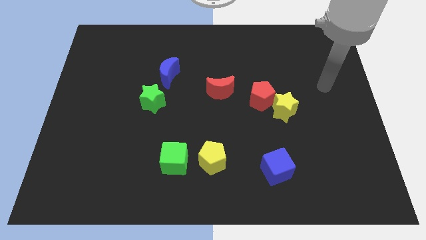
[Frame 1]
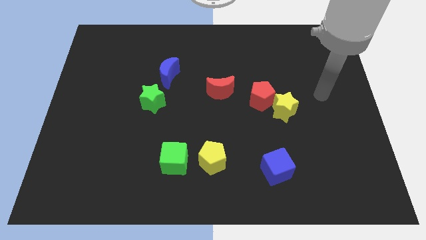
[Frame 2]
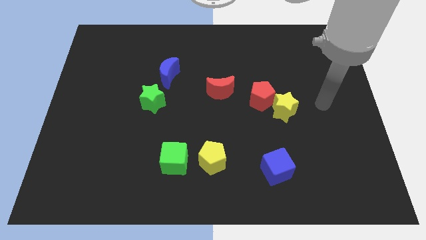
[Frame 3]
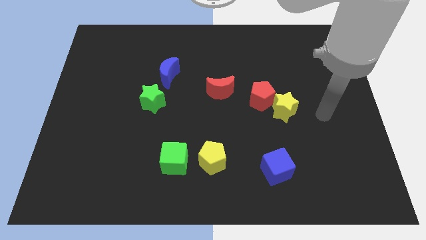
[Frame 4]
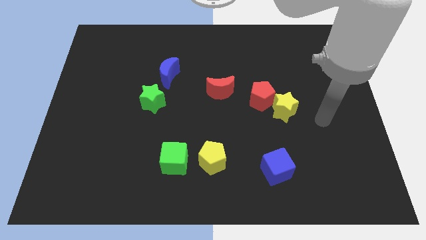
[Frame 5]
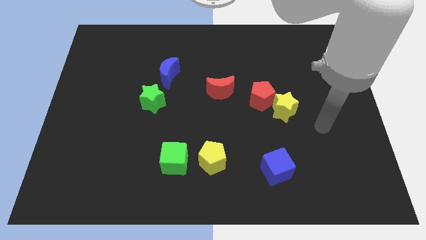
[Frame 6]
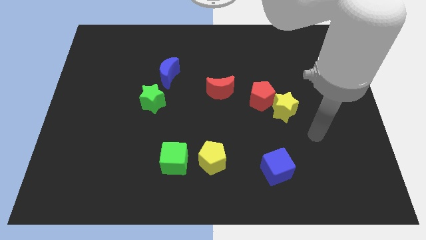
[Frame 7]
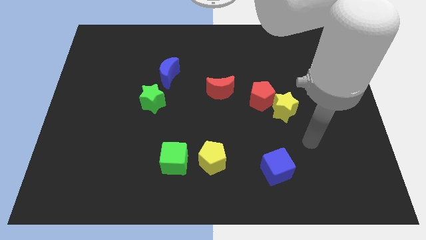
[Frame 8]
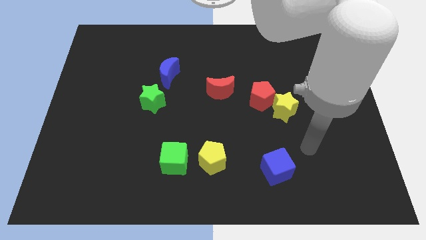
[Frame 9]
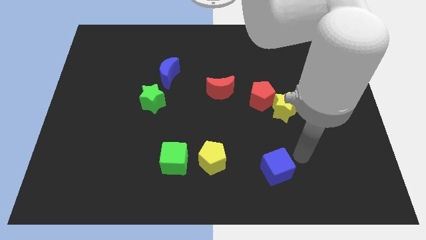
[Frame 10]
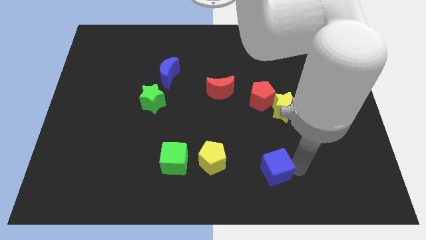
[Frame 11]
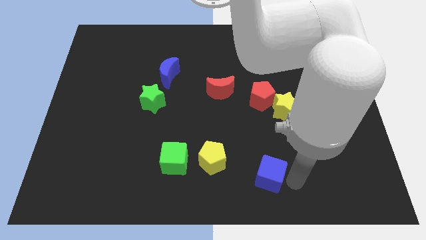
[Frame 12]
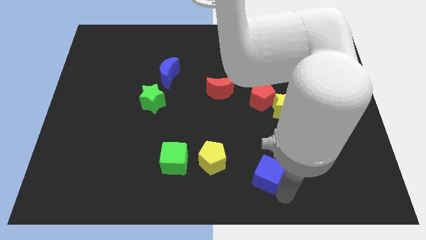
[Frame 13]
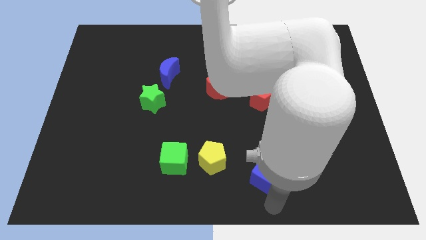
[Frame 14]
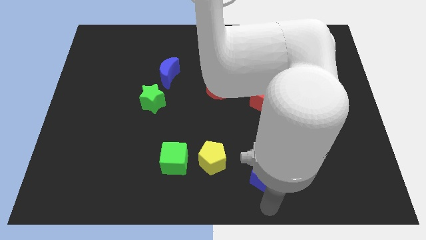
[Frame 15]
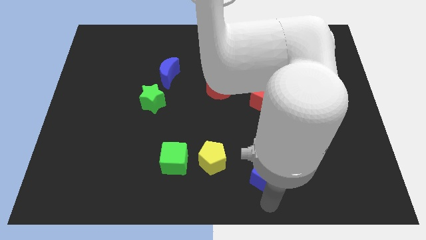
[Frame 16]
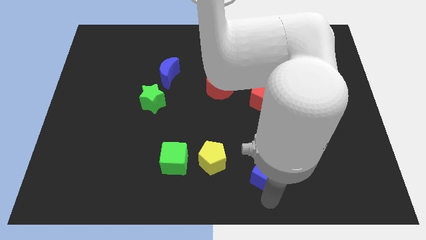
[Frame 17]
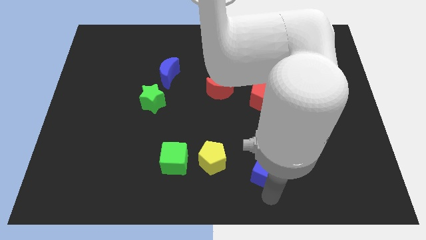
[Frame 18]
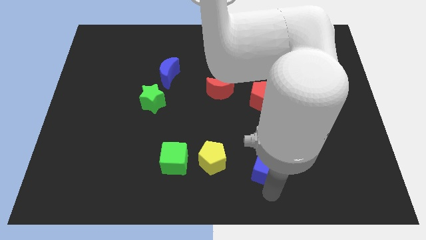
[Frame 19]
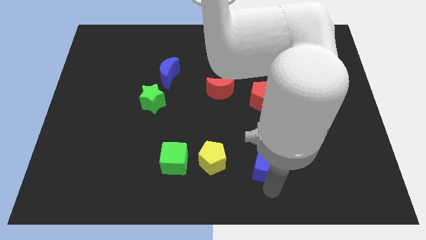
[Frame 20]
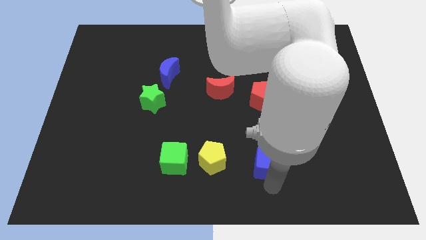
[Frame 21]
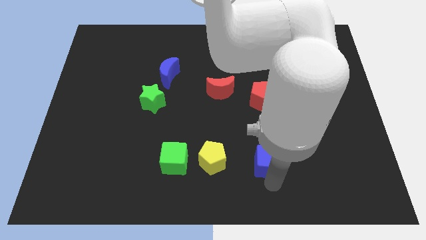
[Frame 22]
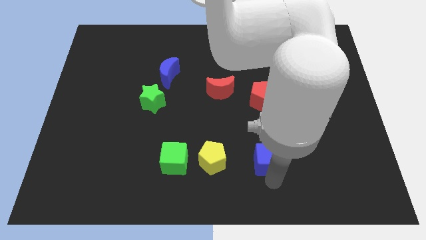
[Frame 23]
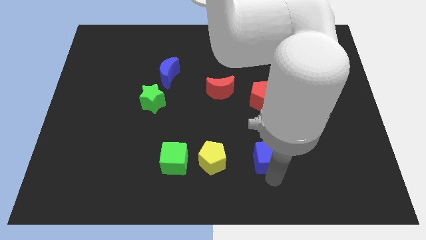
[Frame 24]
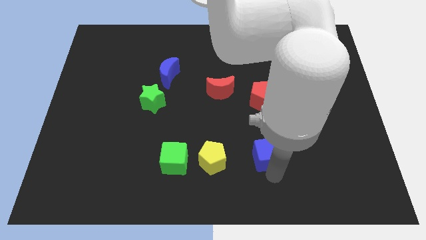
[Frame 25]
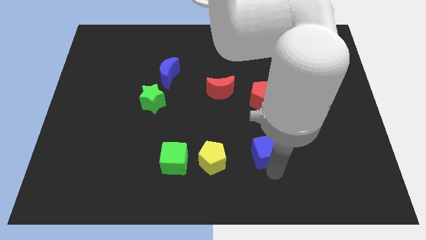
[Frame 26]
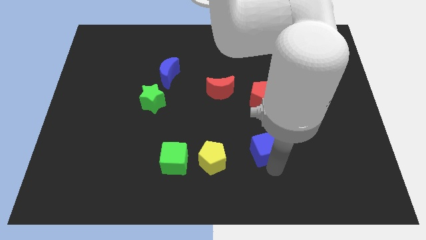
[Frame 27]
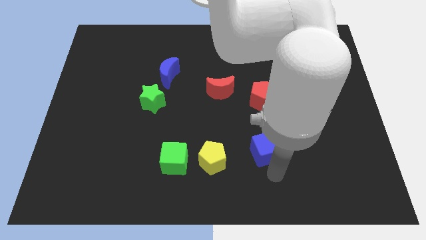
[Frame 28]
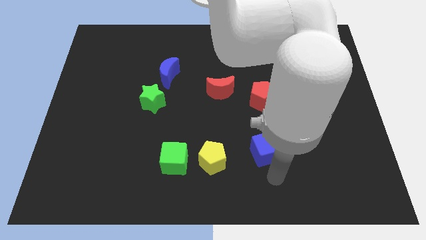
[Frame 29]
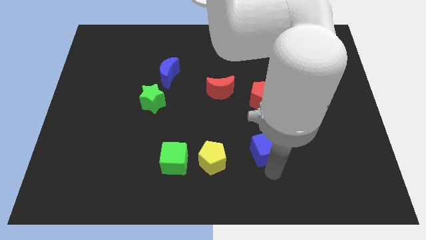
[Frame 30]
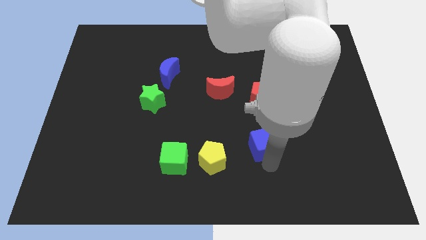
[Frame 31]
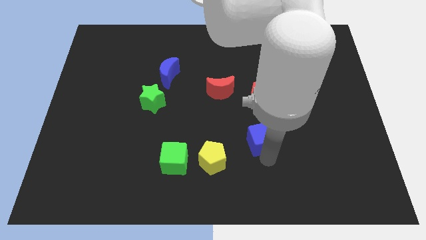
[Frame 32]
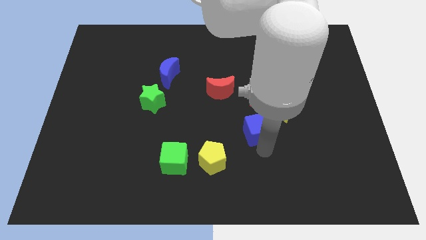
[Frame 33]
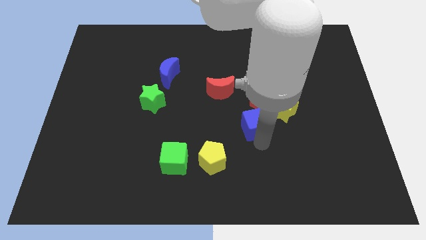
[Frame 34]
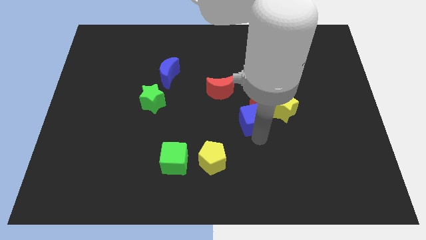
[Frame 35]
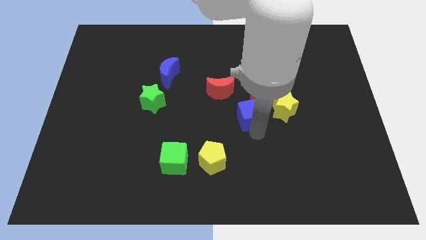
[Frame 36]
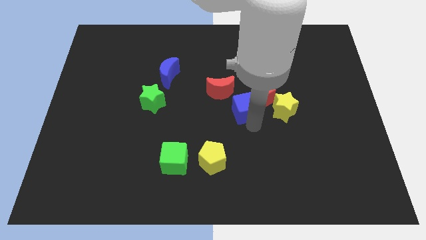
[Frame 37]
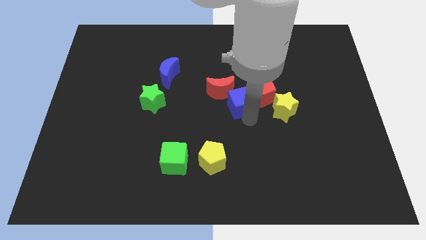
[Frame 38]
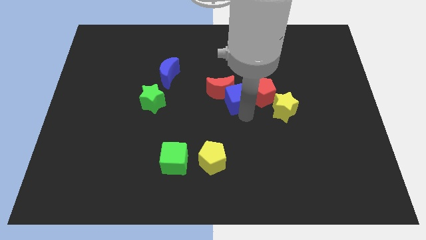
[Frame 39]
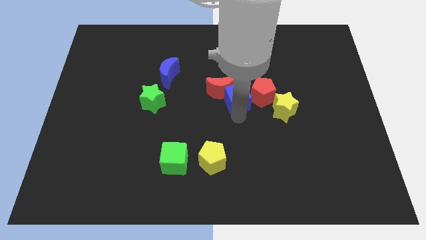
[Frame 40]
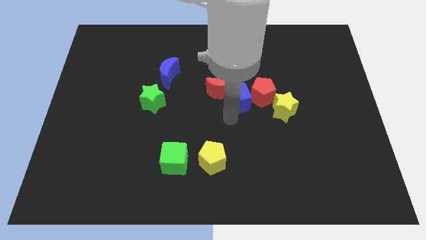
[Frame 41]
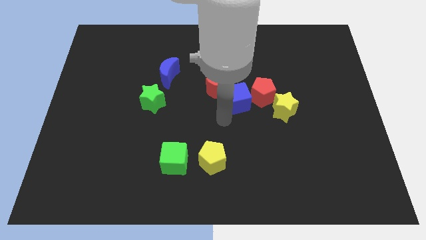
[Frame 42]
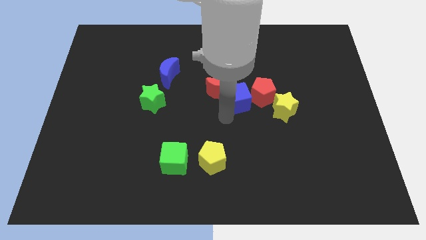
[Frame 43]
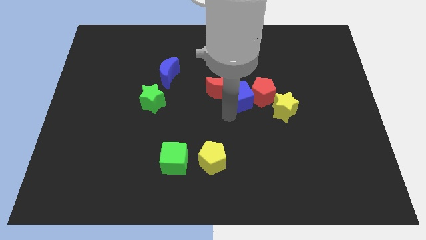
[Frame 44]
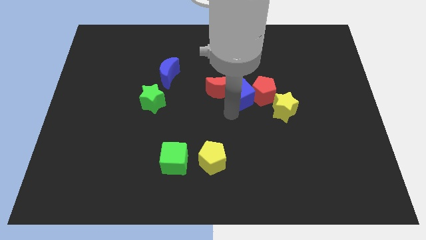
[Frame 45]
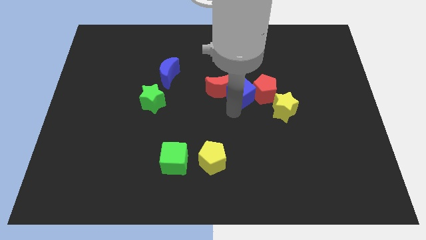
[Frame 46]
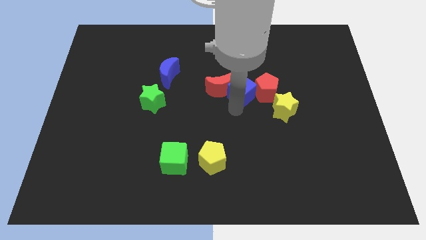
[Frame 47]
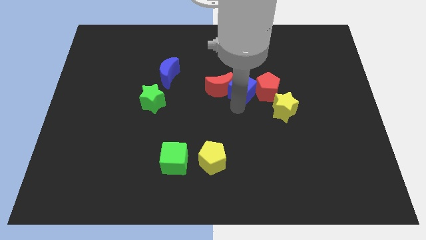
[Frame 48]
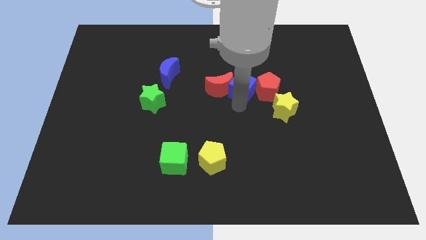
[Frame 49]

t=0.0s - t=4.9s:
slide the blue cube upwards

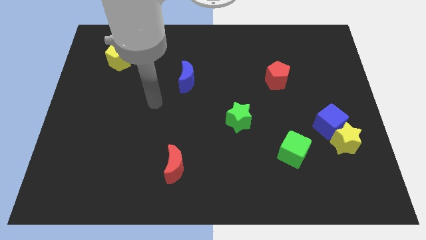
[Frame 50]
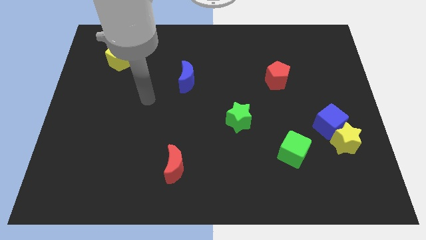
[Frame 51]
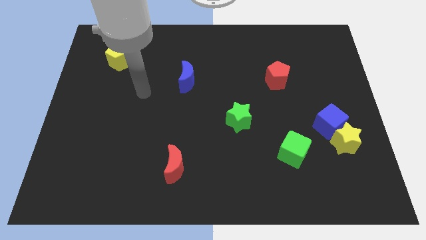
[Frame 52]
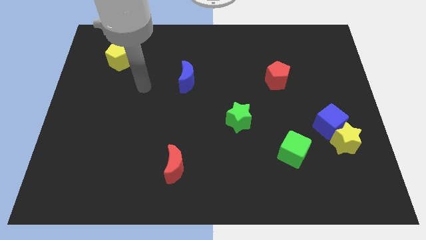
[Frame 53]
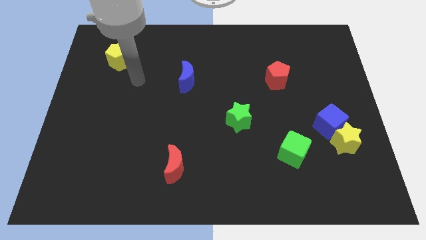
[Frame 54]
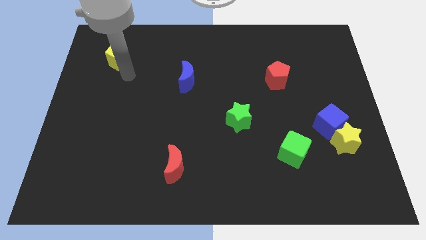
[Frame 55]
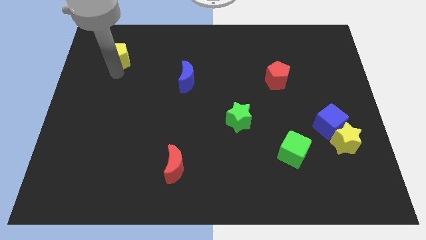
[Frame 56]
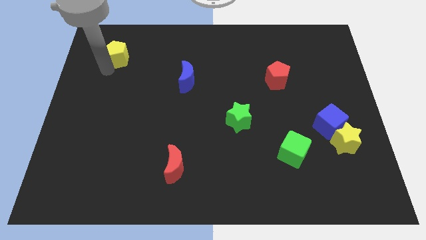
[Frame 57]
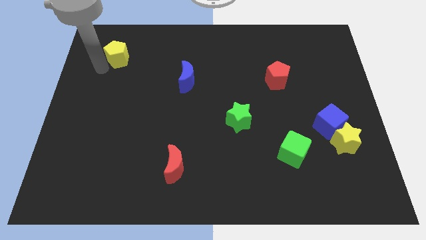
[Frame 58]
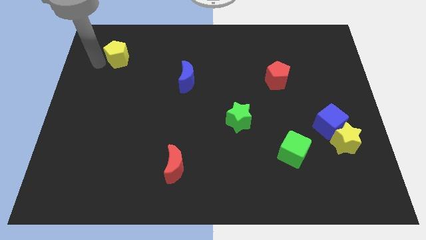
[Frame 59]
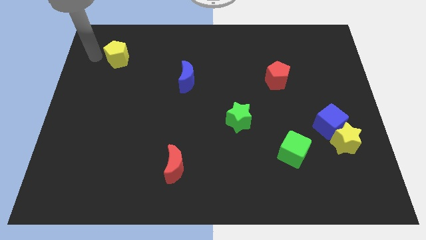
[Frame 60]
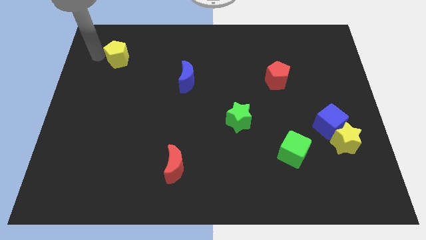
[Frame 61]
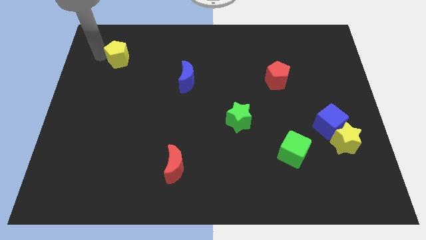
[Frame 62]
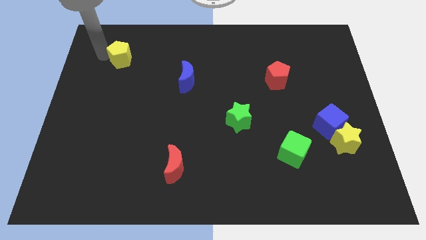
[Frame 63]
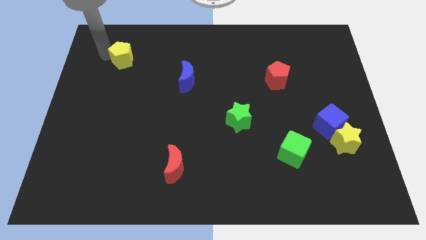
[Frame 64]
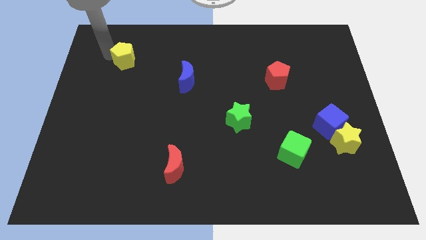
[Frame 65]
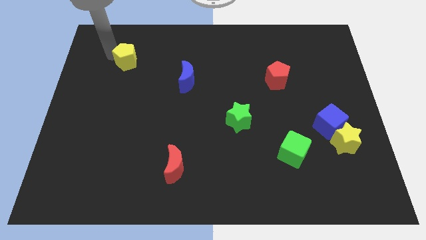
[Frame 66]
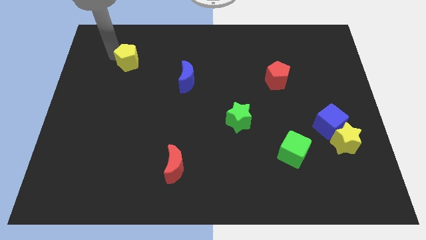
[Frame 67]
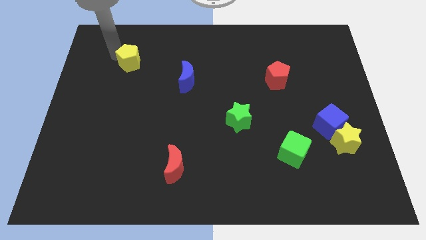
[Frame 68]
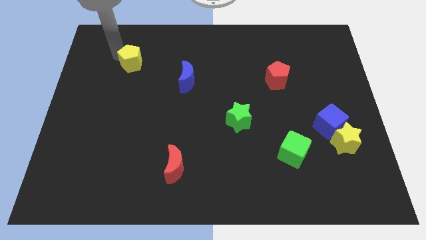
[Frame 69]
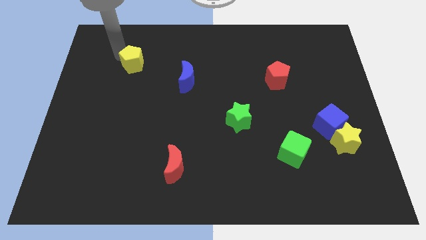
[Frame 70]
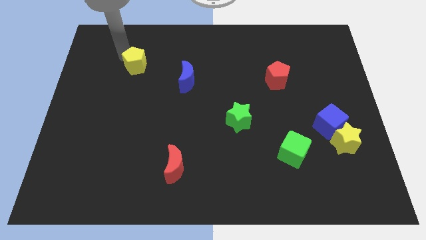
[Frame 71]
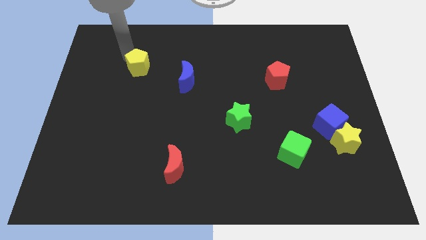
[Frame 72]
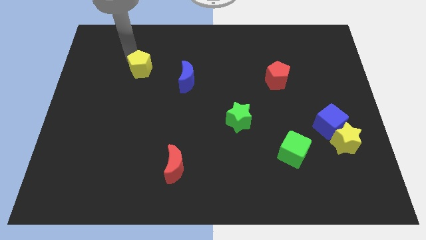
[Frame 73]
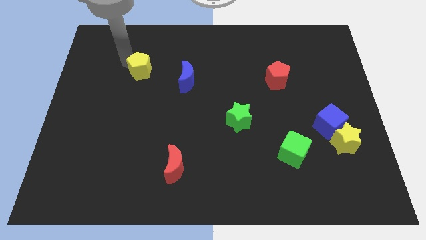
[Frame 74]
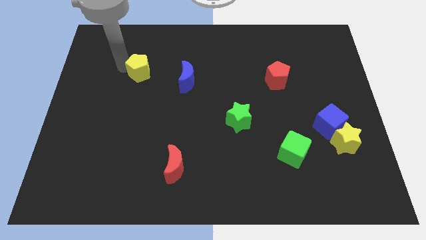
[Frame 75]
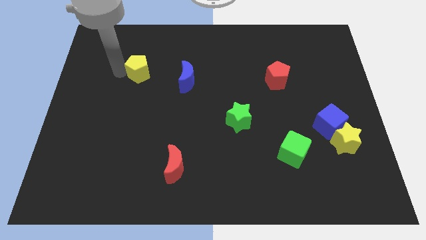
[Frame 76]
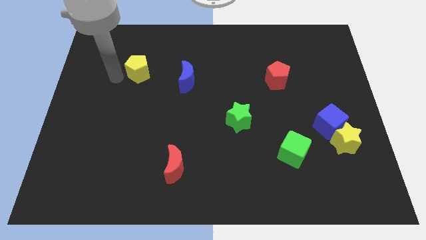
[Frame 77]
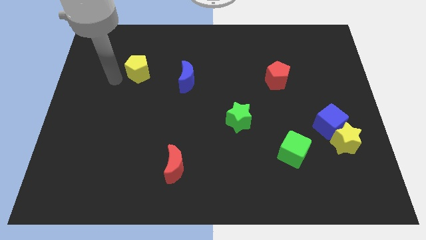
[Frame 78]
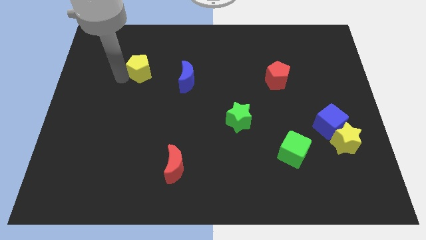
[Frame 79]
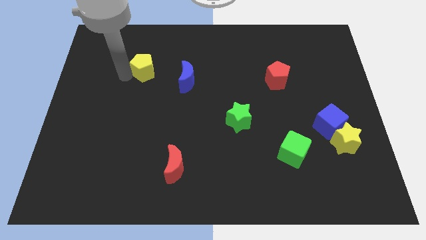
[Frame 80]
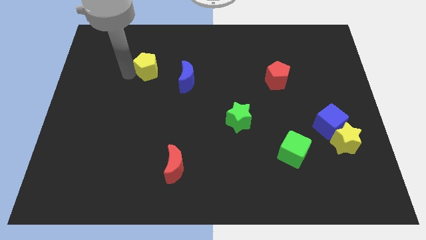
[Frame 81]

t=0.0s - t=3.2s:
slide the yellow pentagon to the right a little
